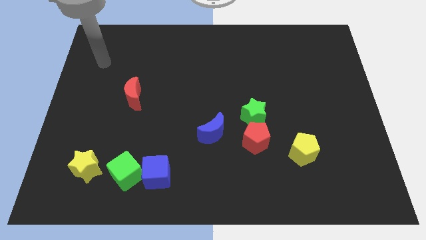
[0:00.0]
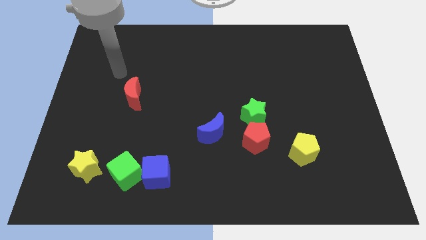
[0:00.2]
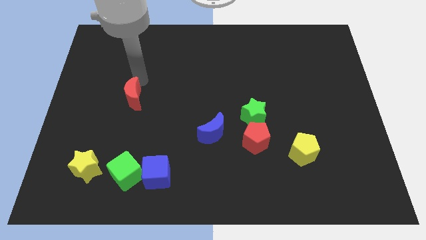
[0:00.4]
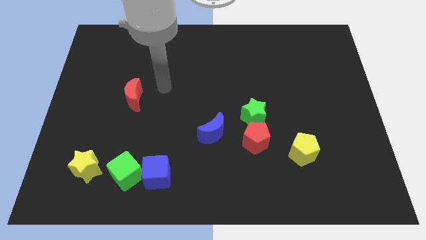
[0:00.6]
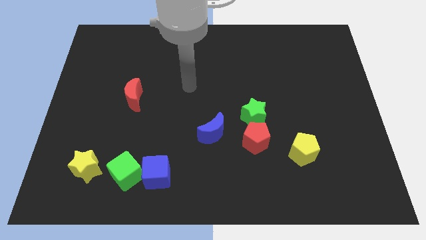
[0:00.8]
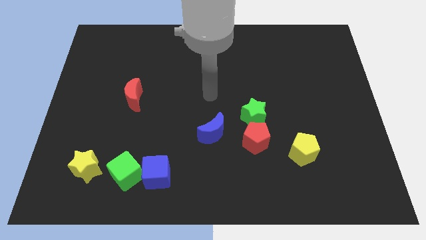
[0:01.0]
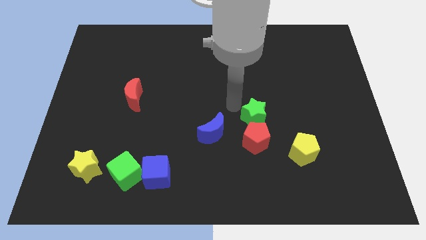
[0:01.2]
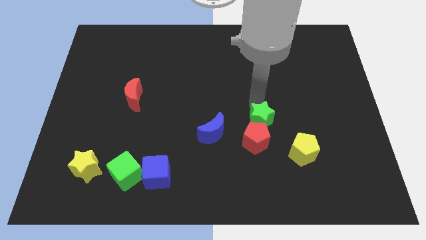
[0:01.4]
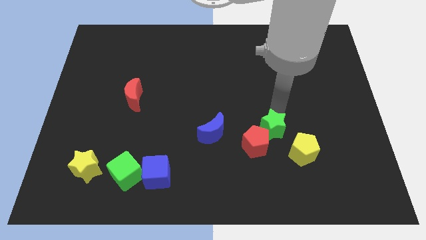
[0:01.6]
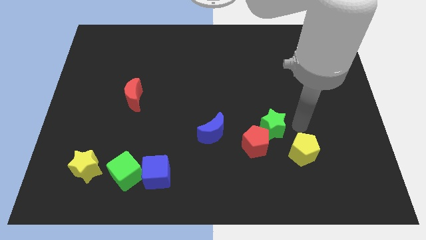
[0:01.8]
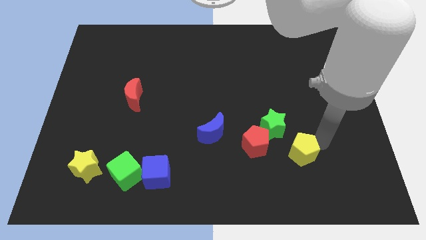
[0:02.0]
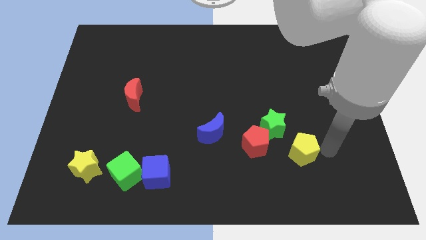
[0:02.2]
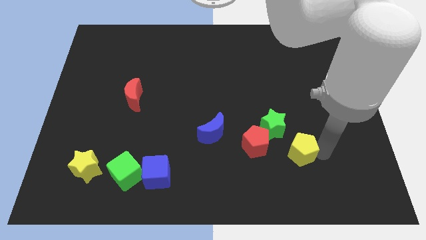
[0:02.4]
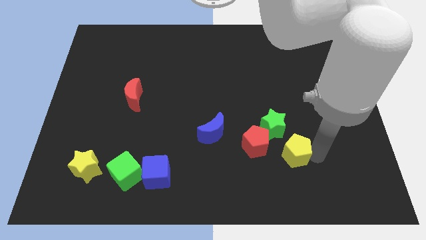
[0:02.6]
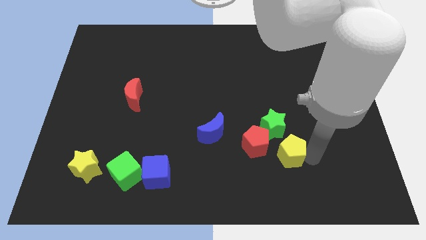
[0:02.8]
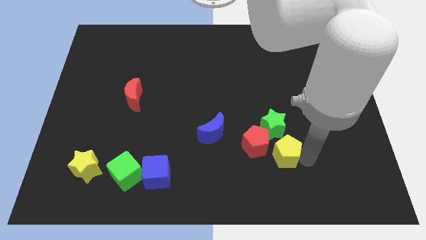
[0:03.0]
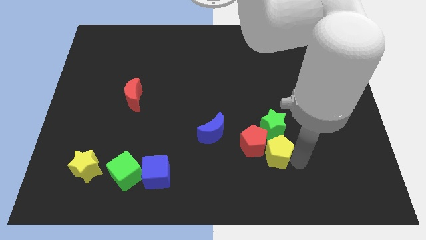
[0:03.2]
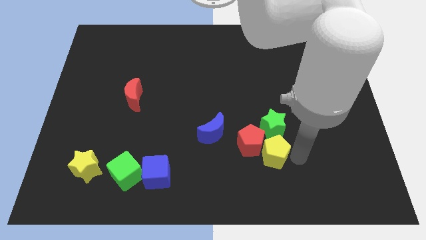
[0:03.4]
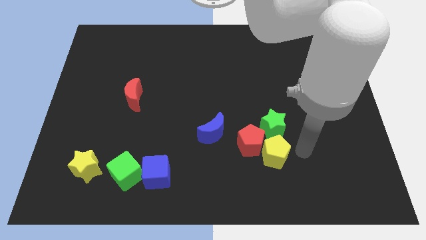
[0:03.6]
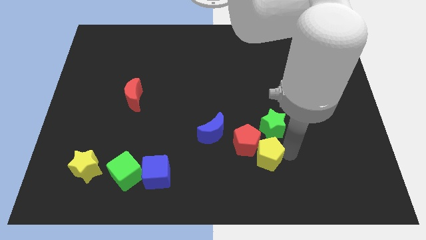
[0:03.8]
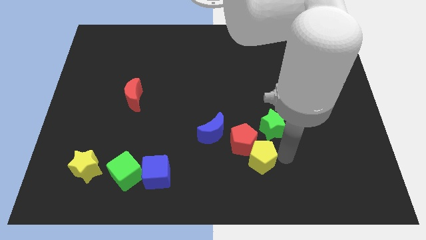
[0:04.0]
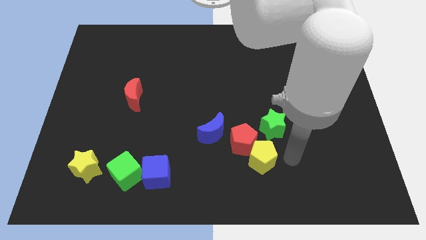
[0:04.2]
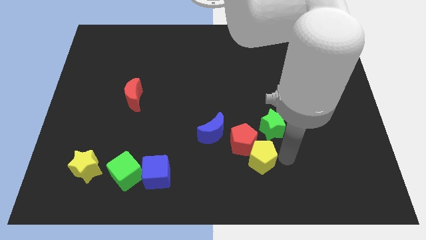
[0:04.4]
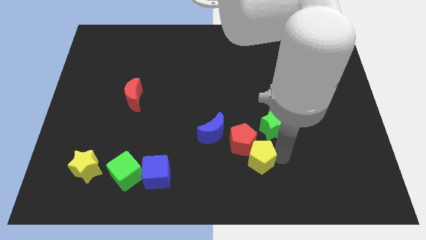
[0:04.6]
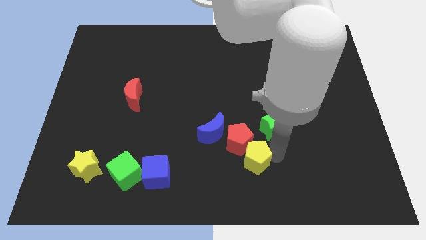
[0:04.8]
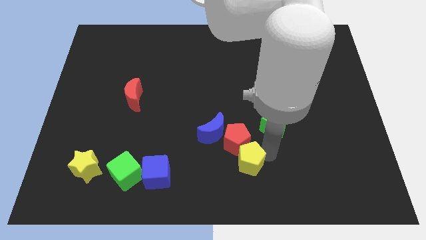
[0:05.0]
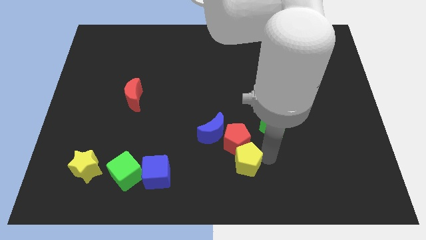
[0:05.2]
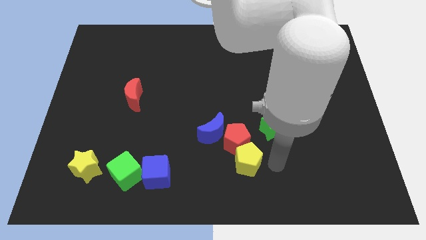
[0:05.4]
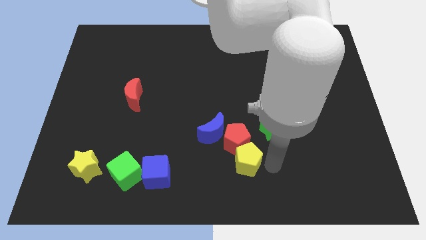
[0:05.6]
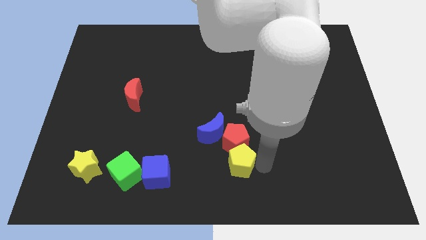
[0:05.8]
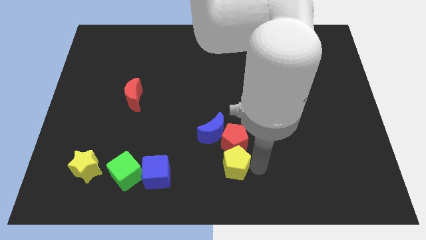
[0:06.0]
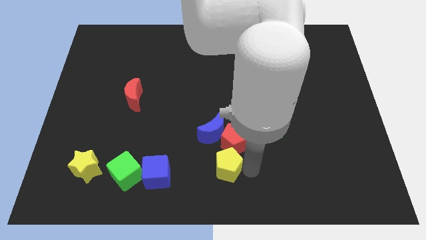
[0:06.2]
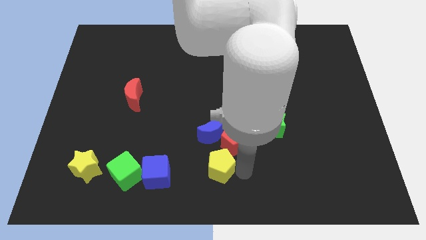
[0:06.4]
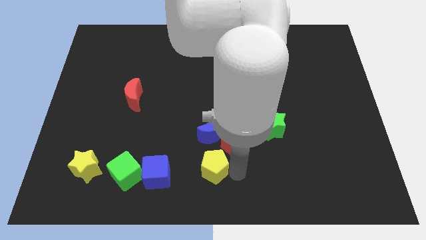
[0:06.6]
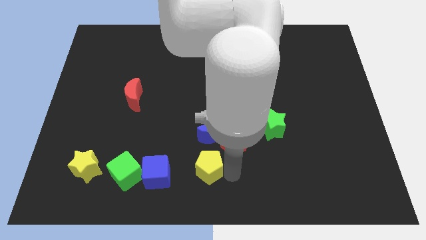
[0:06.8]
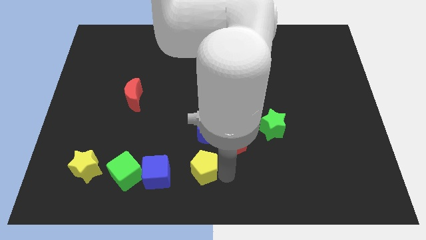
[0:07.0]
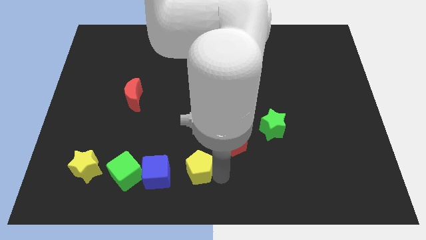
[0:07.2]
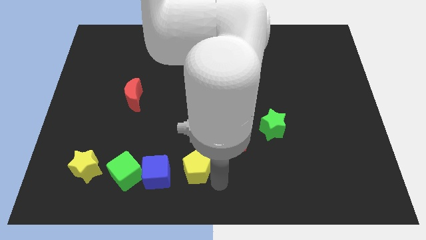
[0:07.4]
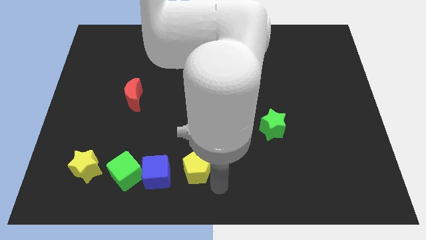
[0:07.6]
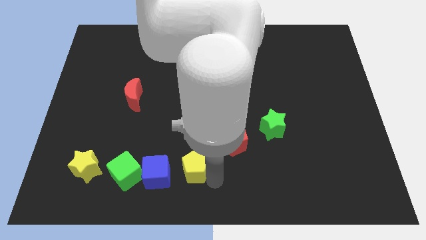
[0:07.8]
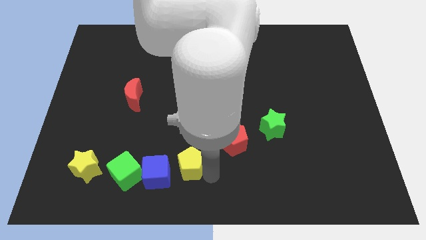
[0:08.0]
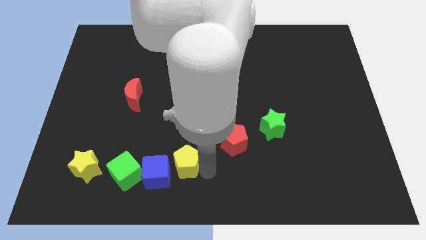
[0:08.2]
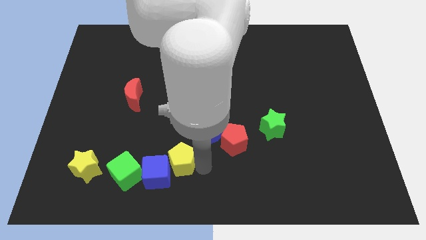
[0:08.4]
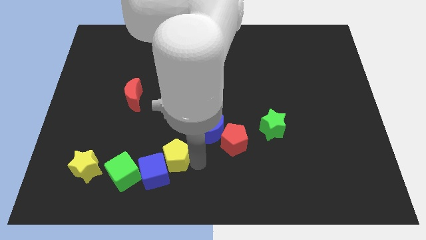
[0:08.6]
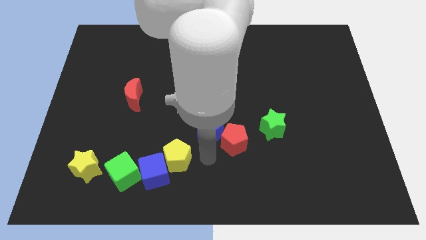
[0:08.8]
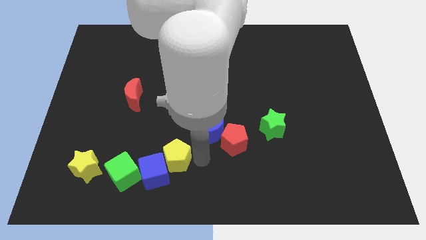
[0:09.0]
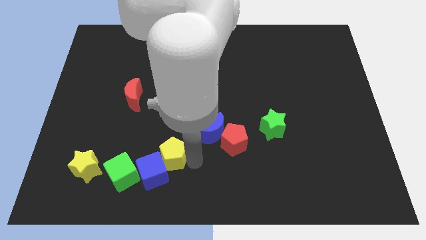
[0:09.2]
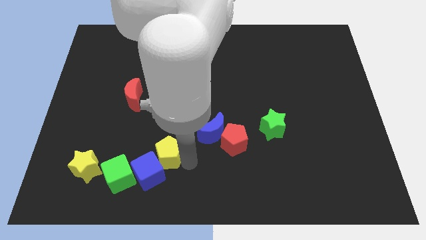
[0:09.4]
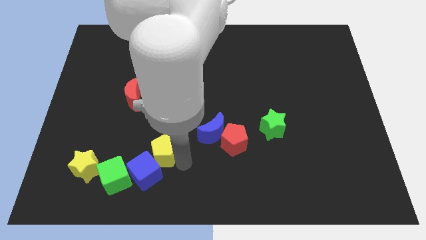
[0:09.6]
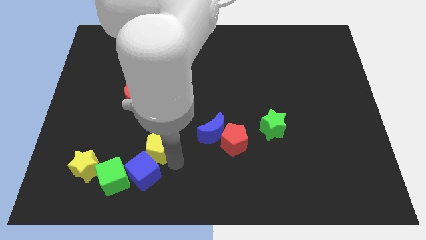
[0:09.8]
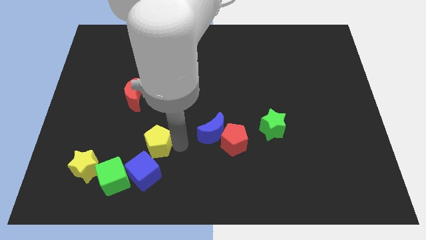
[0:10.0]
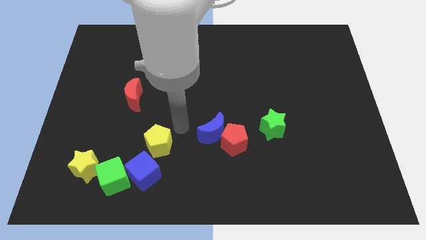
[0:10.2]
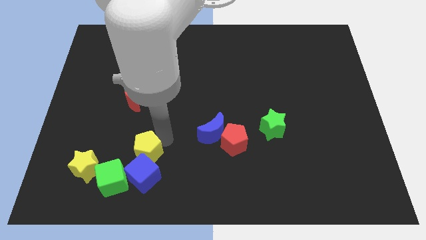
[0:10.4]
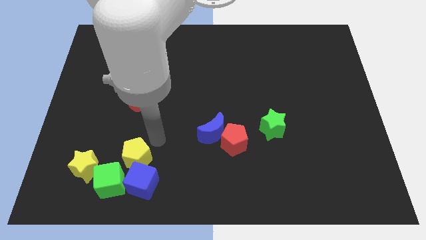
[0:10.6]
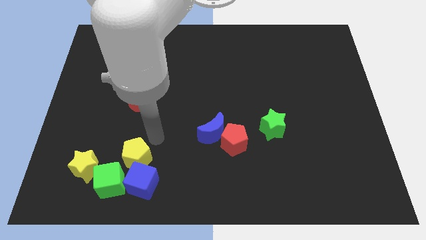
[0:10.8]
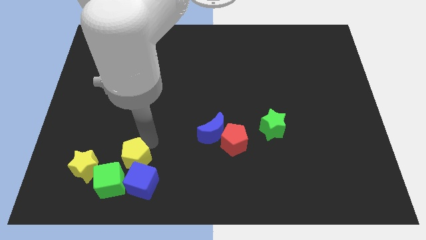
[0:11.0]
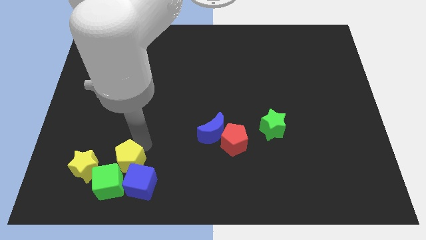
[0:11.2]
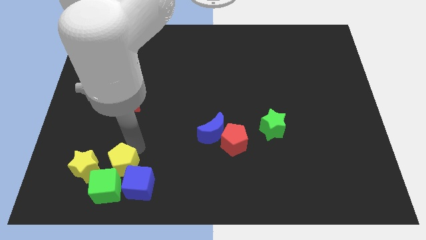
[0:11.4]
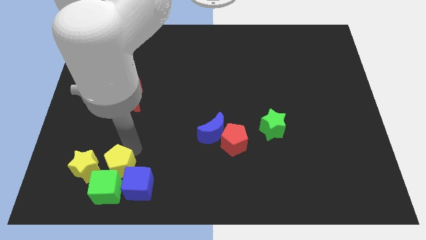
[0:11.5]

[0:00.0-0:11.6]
slide the yellow pentagon close to the green cube

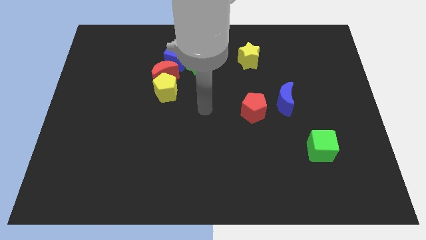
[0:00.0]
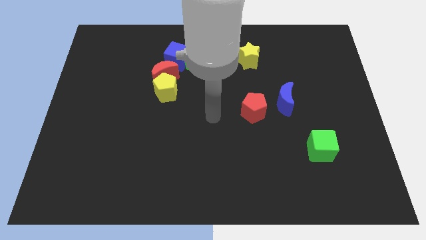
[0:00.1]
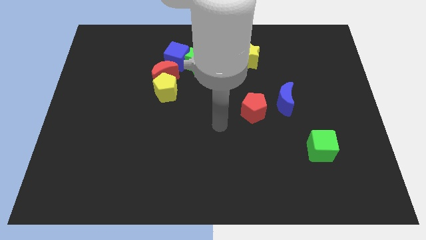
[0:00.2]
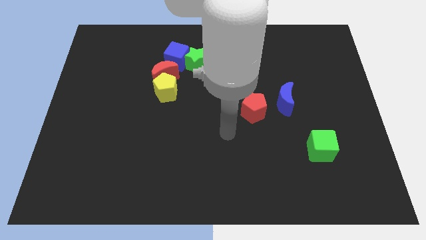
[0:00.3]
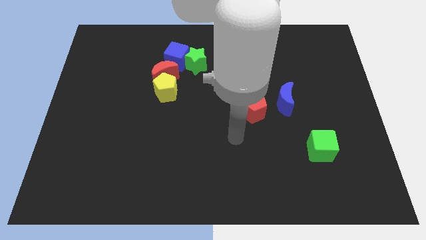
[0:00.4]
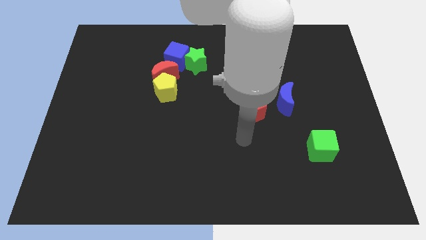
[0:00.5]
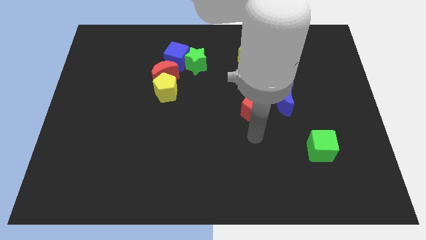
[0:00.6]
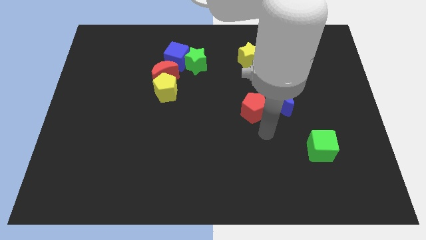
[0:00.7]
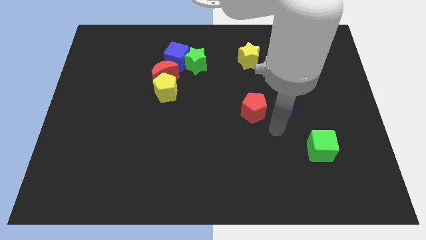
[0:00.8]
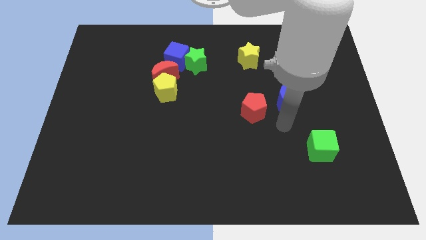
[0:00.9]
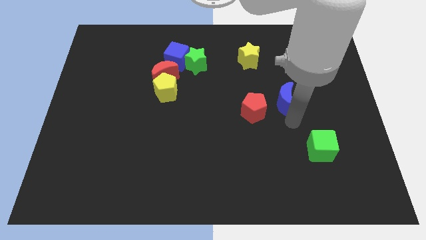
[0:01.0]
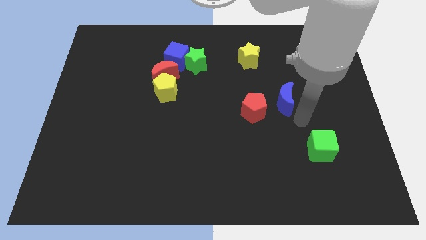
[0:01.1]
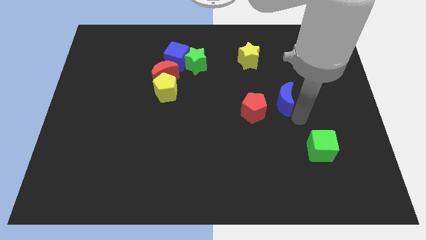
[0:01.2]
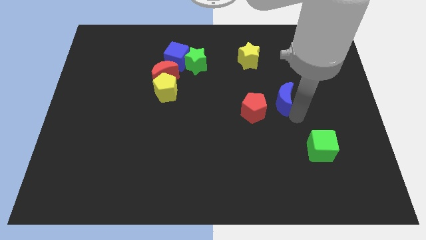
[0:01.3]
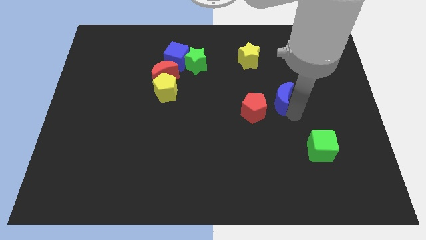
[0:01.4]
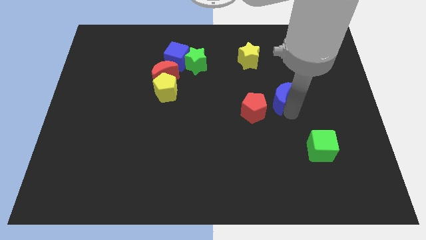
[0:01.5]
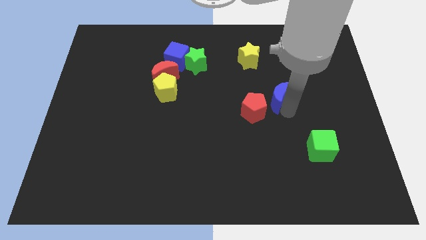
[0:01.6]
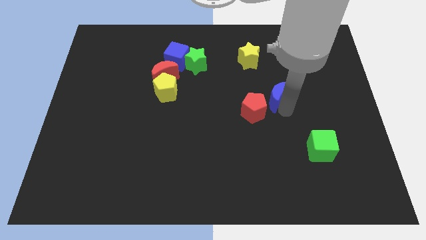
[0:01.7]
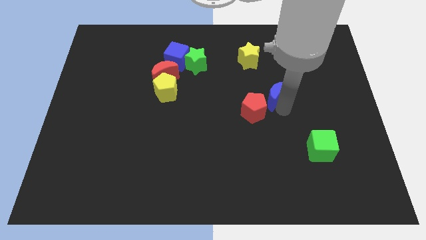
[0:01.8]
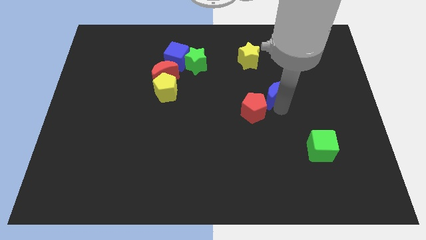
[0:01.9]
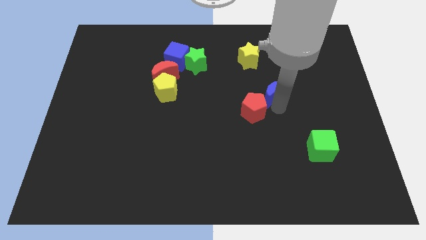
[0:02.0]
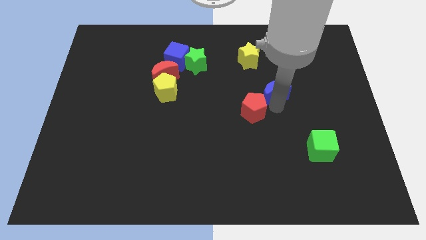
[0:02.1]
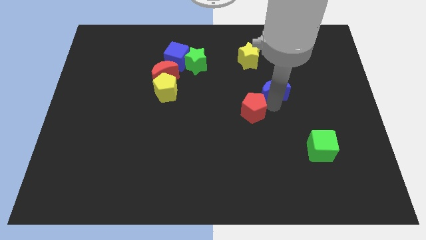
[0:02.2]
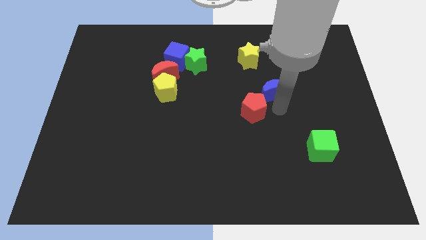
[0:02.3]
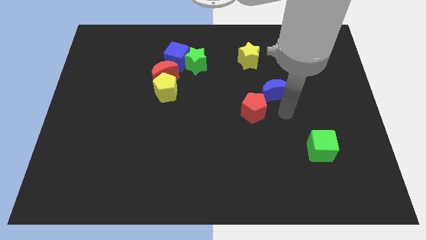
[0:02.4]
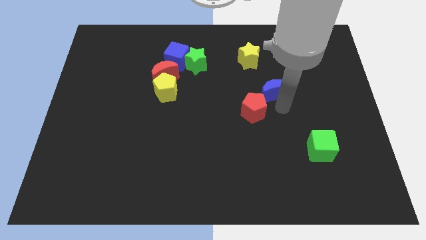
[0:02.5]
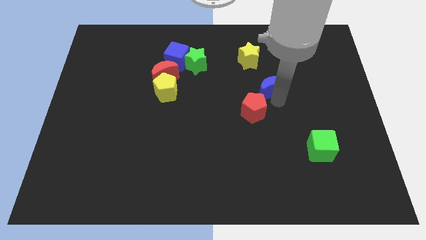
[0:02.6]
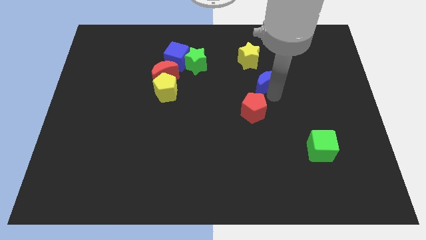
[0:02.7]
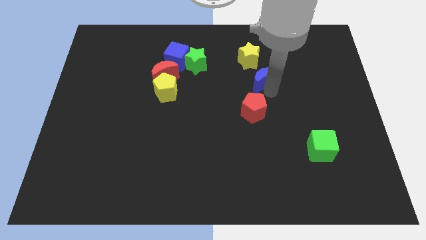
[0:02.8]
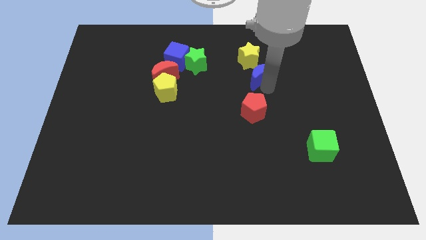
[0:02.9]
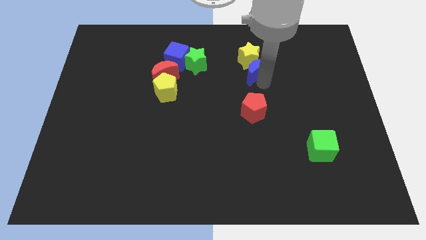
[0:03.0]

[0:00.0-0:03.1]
slide the blue moon towards the yellow star
